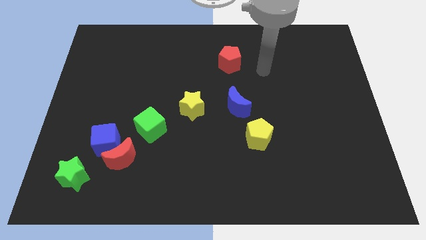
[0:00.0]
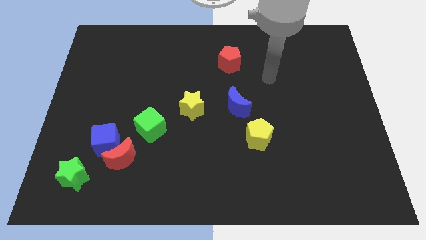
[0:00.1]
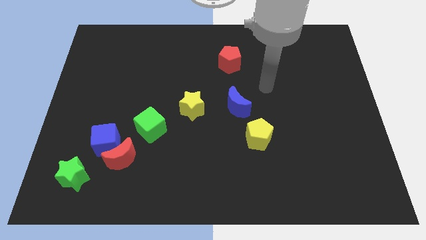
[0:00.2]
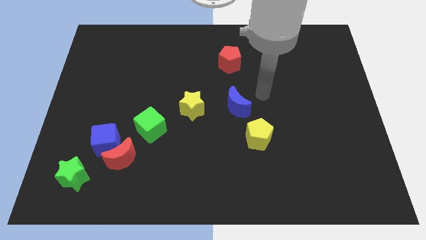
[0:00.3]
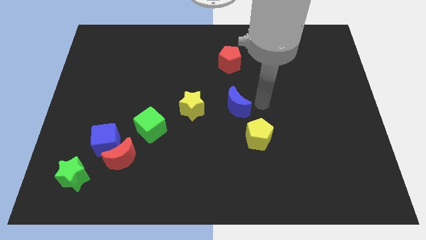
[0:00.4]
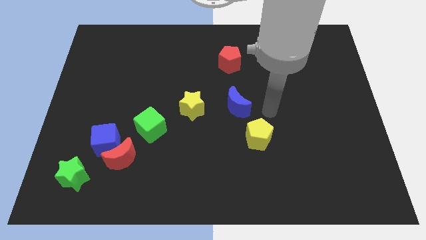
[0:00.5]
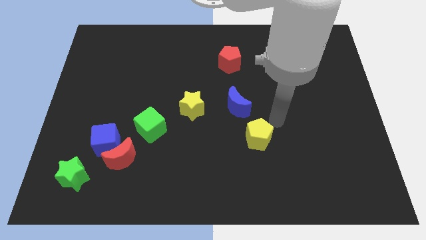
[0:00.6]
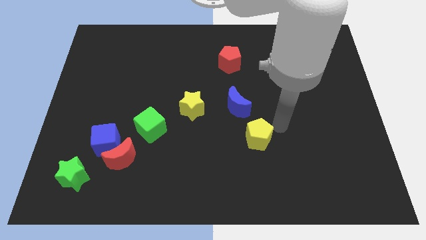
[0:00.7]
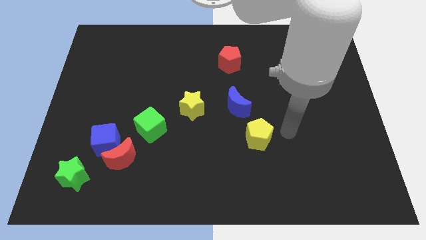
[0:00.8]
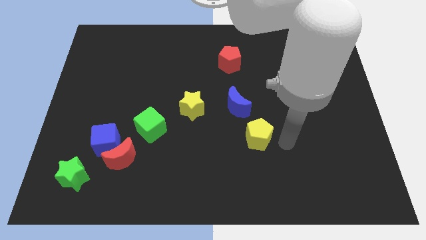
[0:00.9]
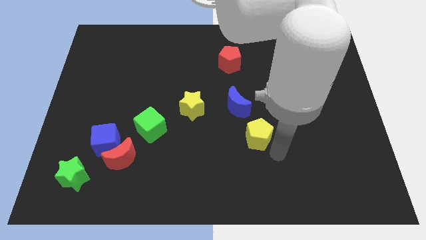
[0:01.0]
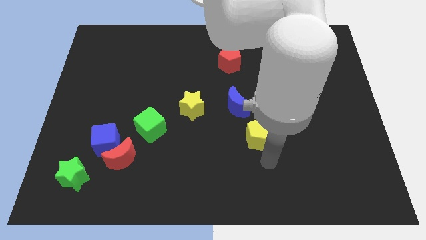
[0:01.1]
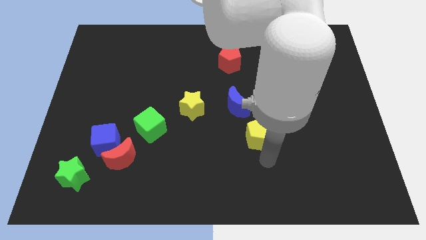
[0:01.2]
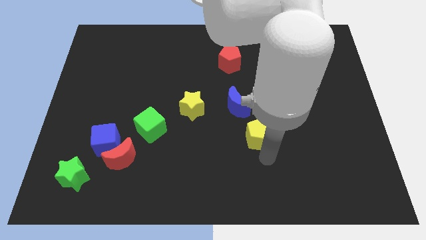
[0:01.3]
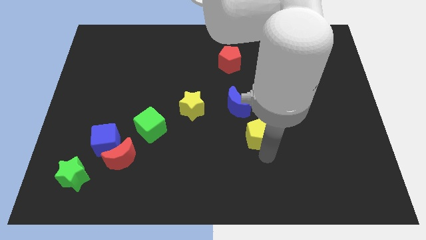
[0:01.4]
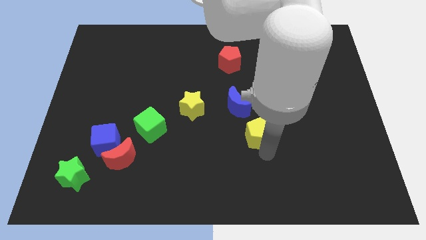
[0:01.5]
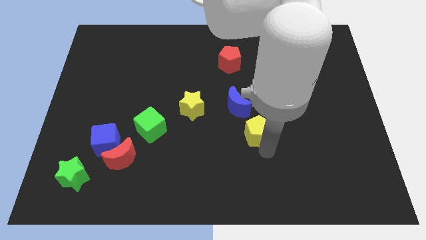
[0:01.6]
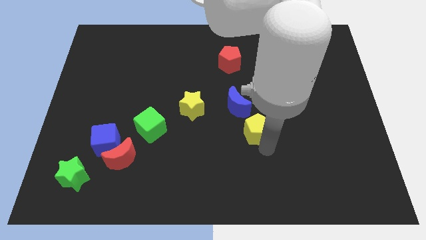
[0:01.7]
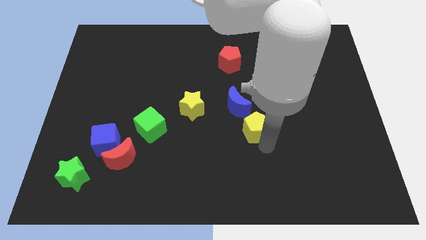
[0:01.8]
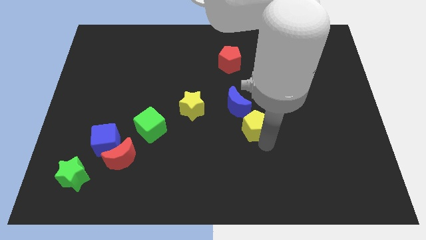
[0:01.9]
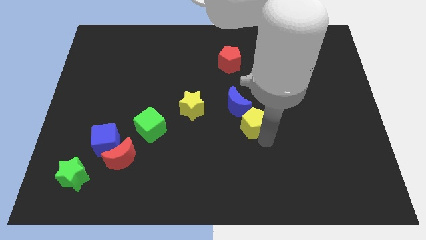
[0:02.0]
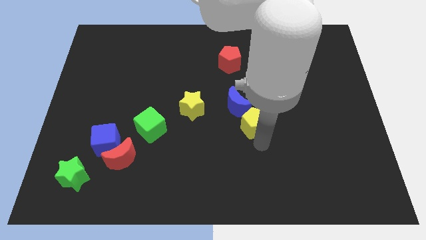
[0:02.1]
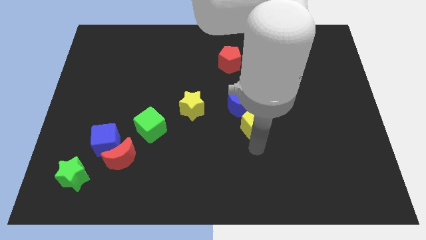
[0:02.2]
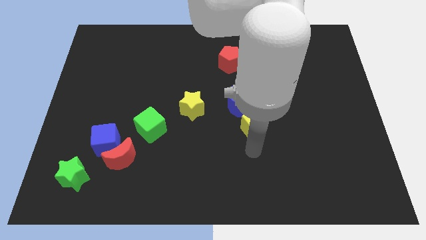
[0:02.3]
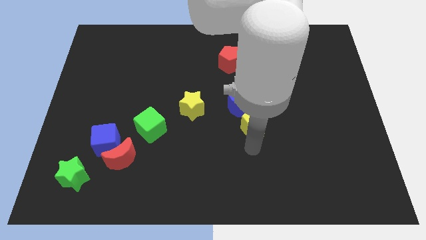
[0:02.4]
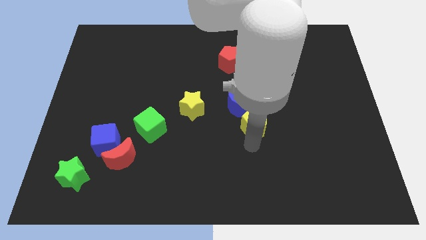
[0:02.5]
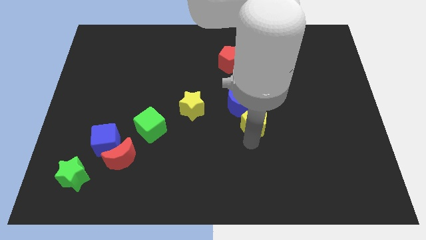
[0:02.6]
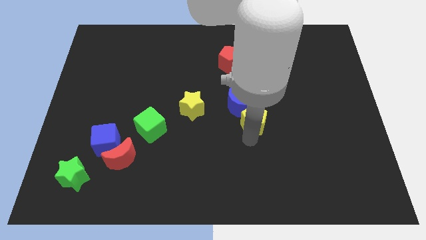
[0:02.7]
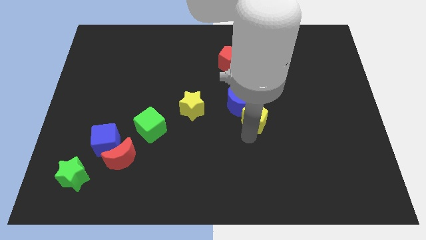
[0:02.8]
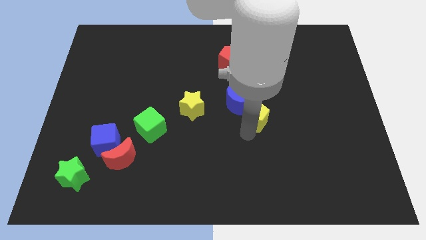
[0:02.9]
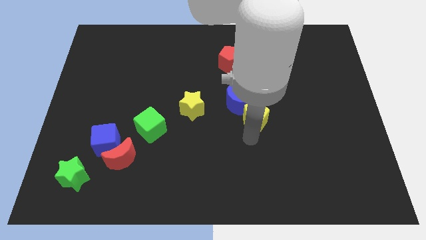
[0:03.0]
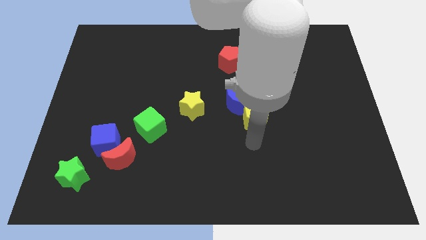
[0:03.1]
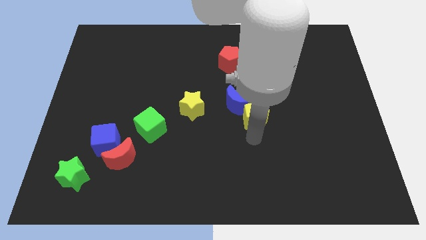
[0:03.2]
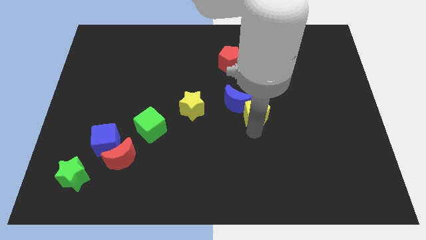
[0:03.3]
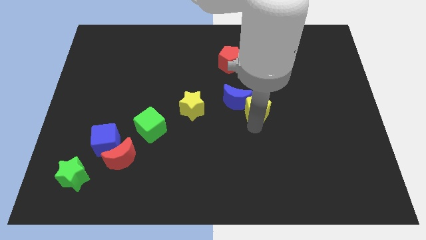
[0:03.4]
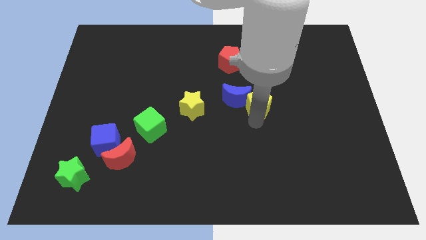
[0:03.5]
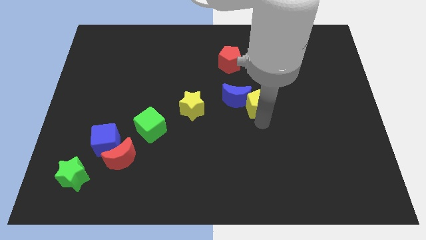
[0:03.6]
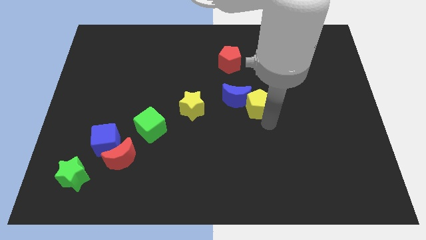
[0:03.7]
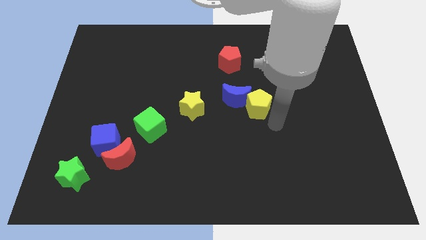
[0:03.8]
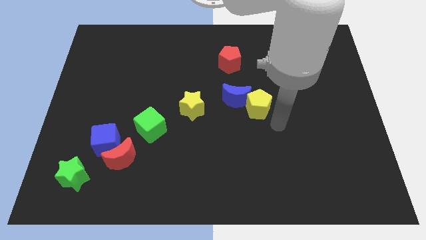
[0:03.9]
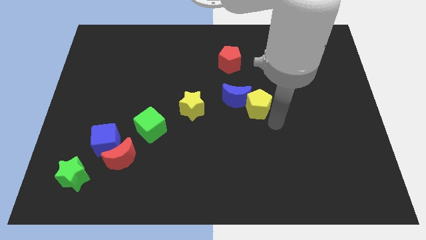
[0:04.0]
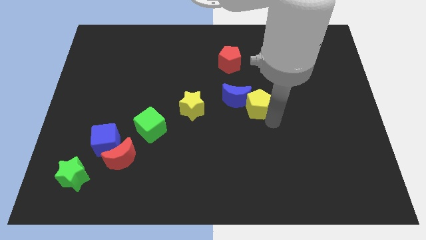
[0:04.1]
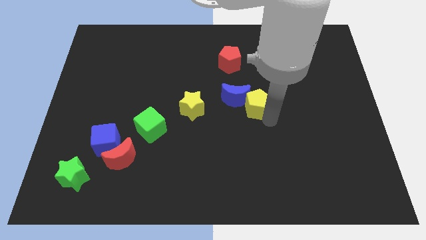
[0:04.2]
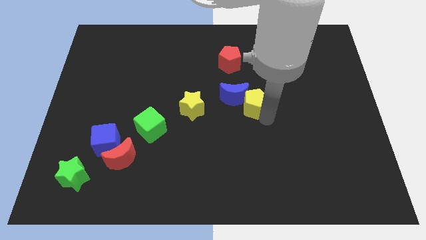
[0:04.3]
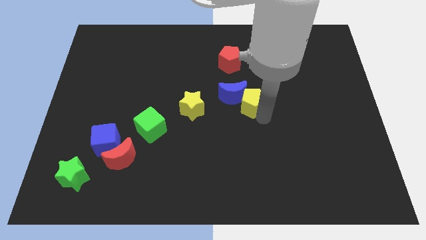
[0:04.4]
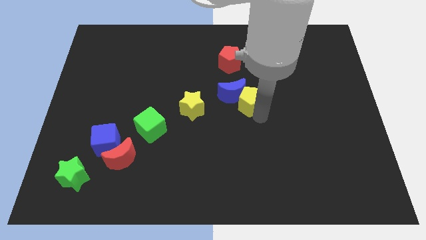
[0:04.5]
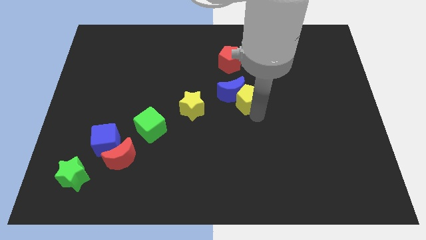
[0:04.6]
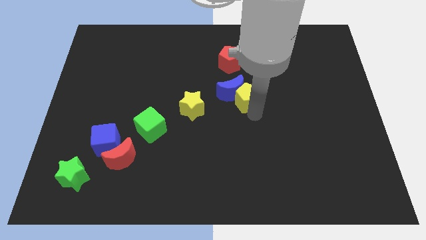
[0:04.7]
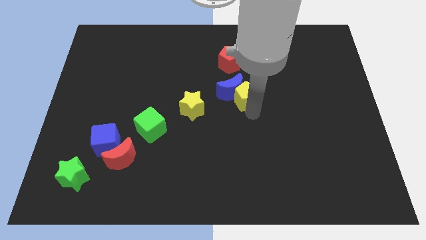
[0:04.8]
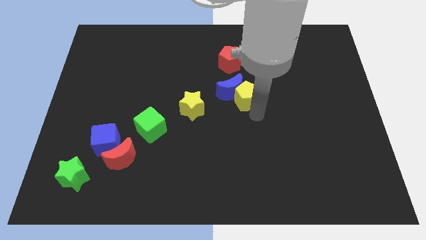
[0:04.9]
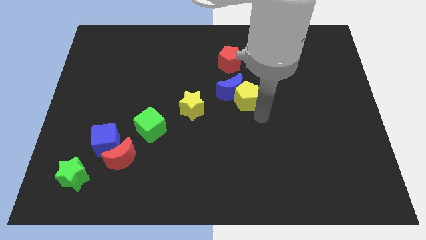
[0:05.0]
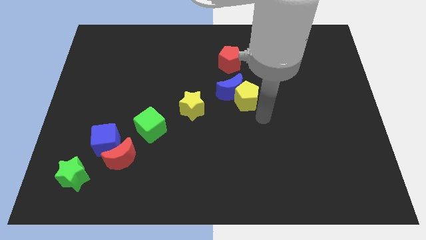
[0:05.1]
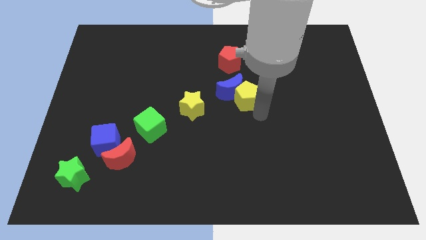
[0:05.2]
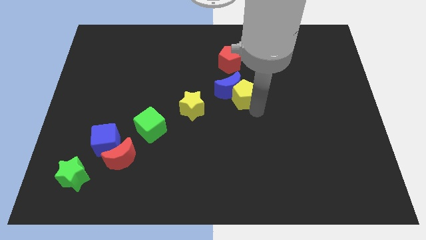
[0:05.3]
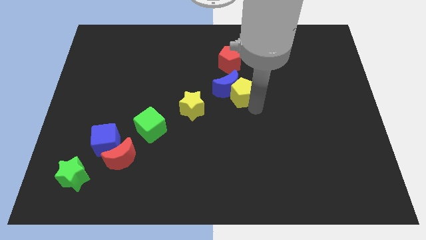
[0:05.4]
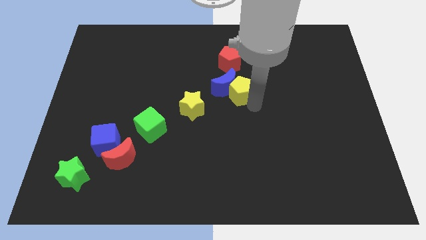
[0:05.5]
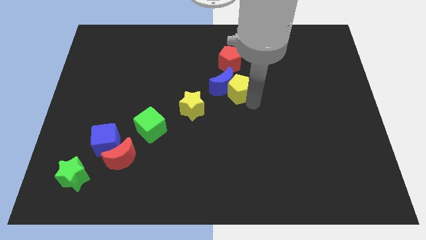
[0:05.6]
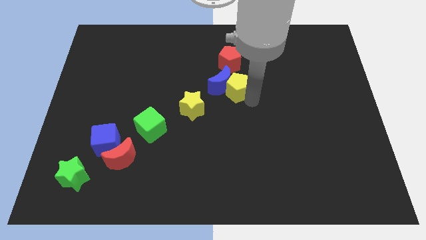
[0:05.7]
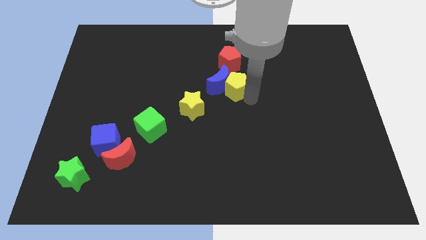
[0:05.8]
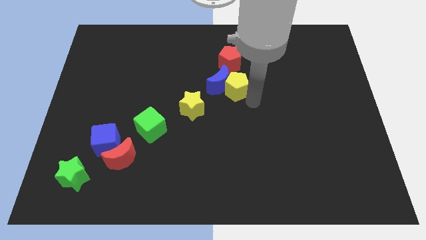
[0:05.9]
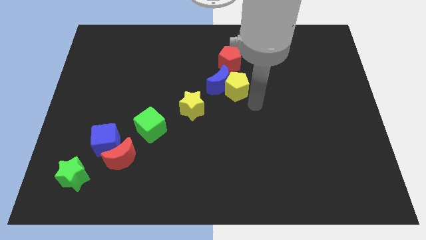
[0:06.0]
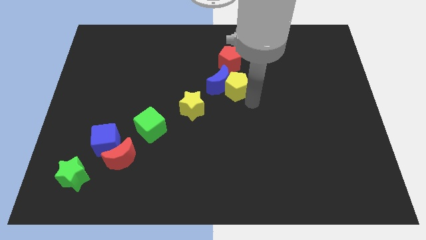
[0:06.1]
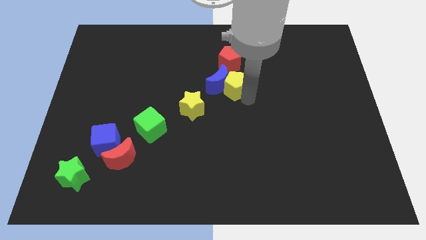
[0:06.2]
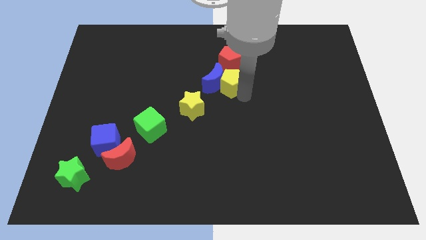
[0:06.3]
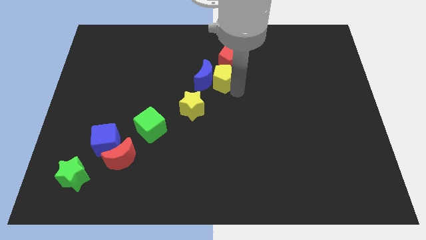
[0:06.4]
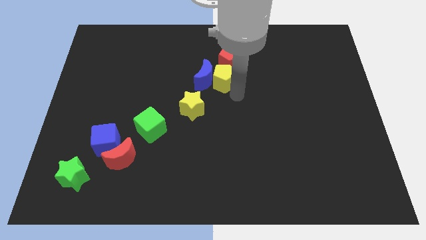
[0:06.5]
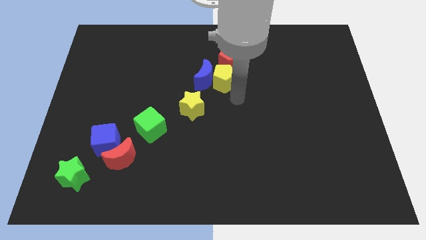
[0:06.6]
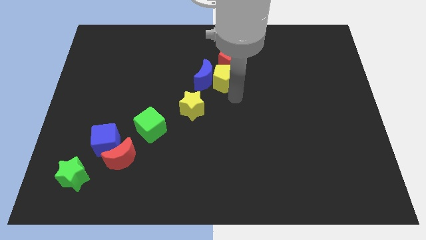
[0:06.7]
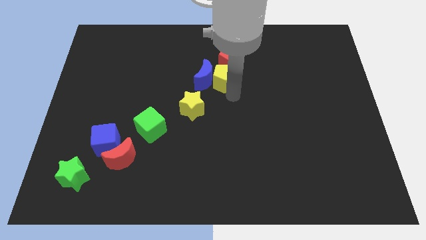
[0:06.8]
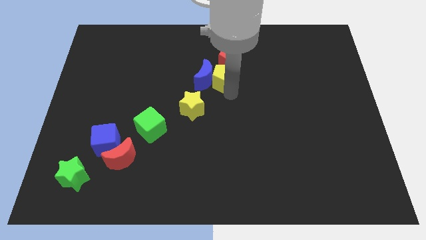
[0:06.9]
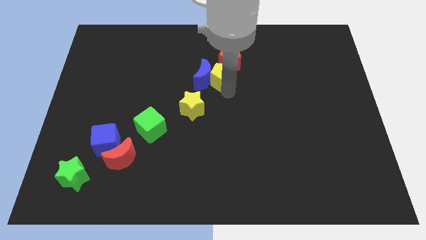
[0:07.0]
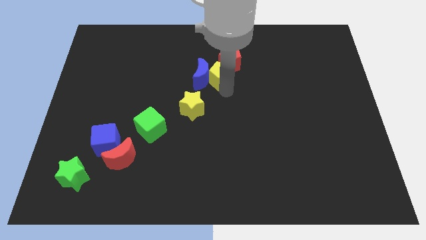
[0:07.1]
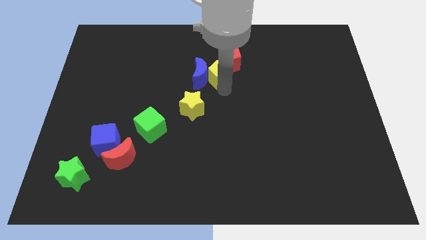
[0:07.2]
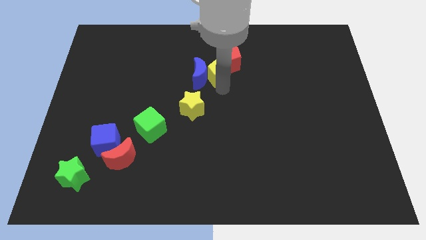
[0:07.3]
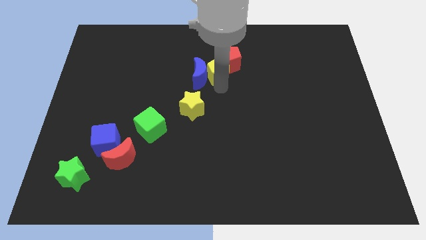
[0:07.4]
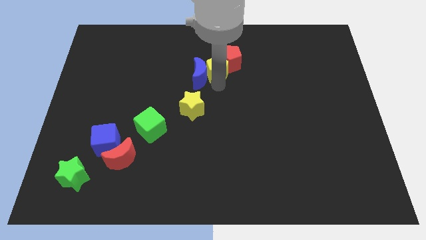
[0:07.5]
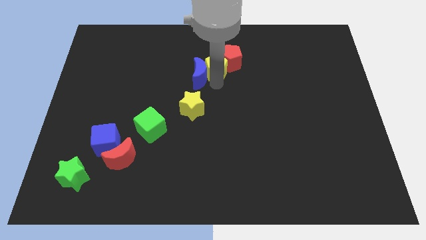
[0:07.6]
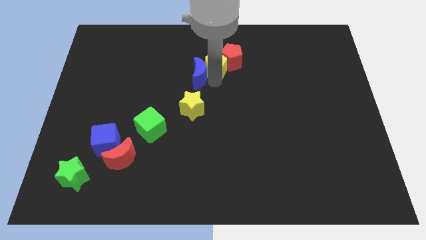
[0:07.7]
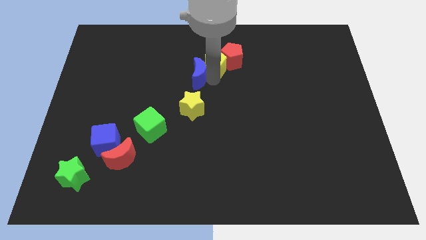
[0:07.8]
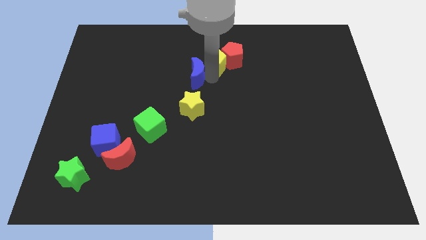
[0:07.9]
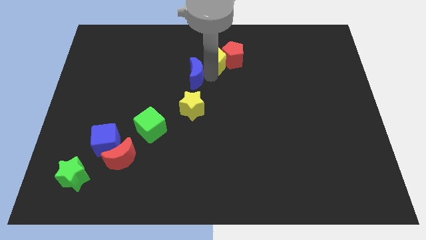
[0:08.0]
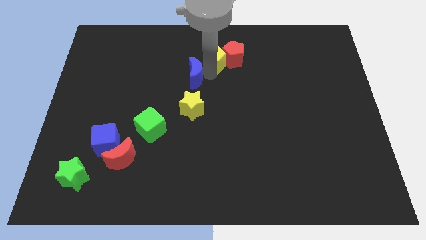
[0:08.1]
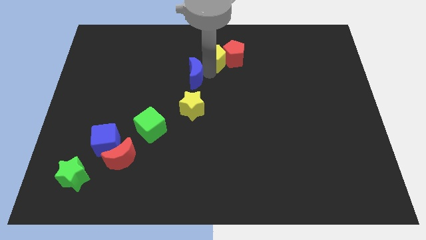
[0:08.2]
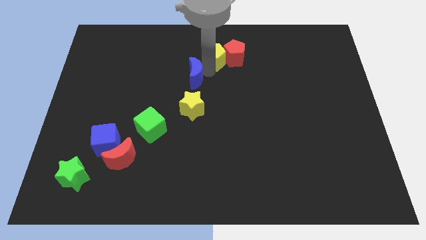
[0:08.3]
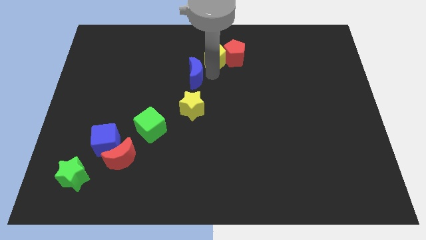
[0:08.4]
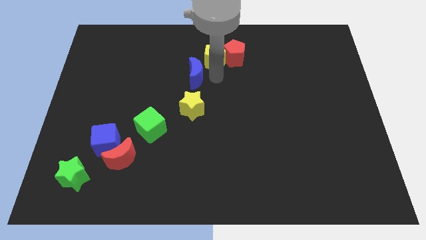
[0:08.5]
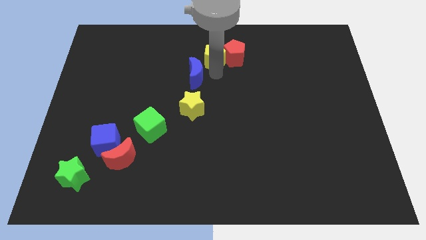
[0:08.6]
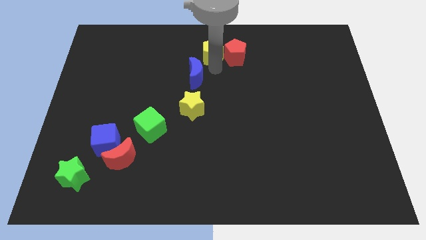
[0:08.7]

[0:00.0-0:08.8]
put the yellow pentagon to the top
